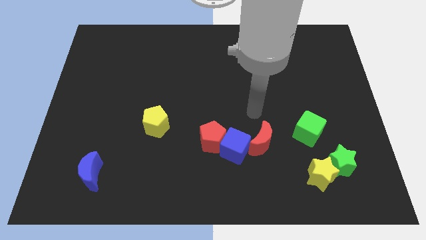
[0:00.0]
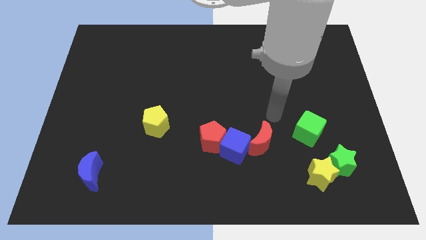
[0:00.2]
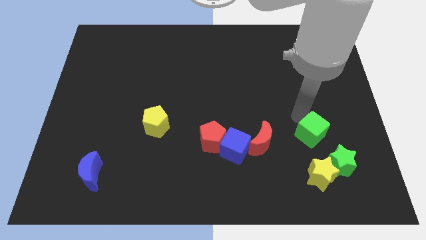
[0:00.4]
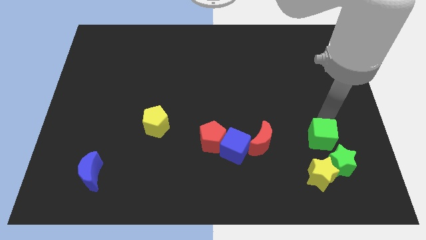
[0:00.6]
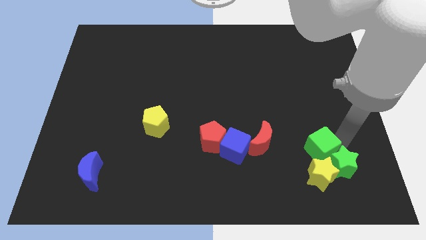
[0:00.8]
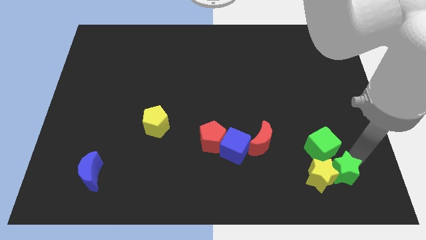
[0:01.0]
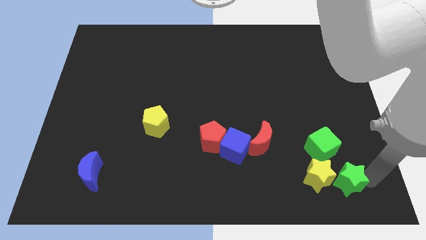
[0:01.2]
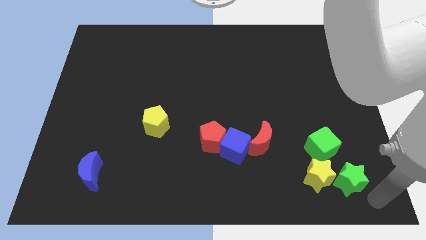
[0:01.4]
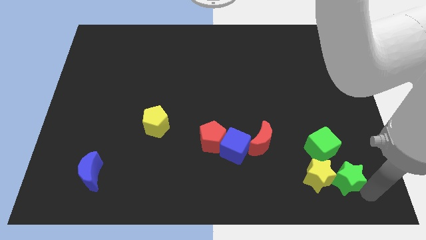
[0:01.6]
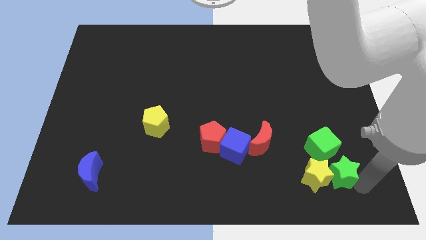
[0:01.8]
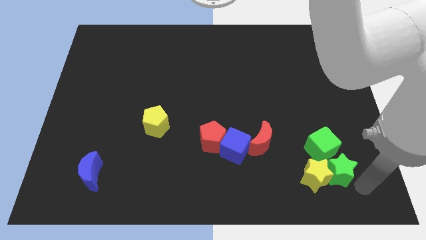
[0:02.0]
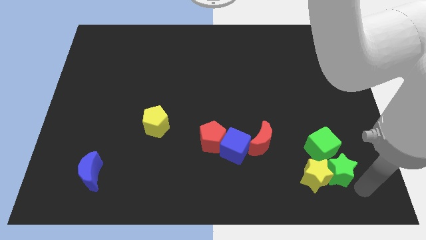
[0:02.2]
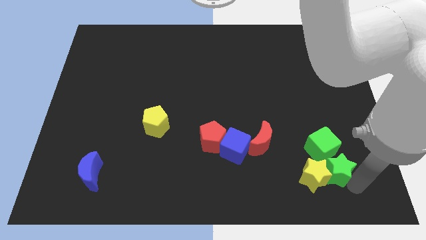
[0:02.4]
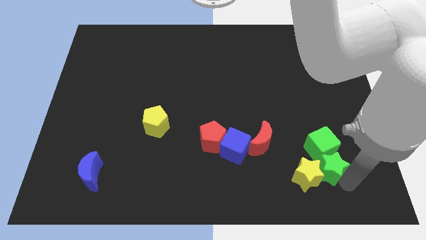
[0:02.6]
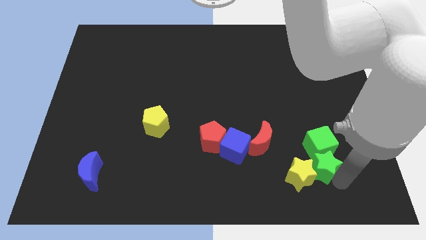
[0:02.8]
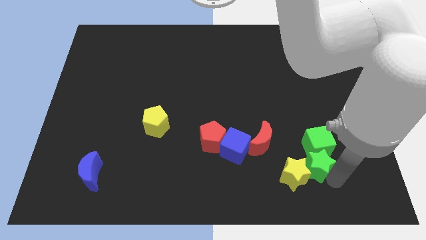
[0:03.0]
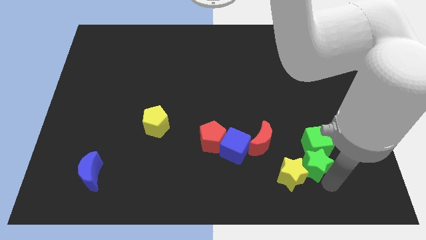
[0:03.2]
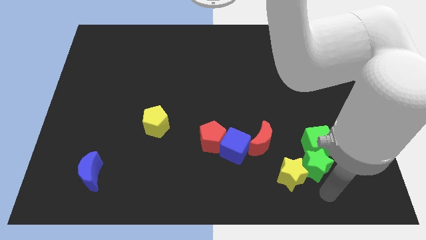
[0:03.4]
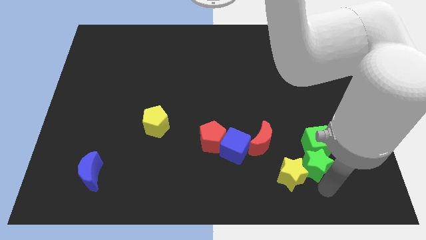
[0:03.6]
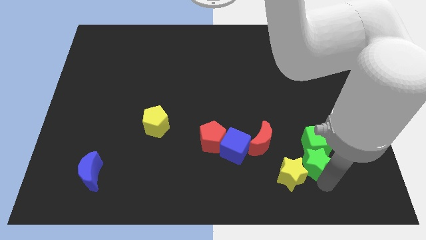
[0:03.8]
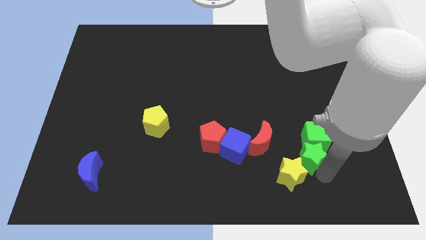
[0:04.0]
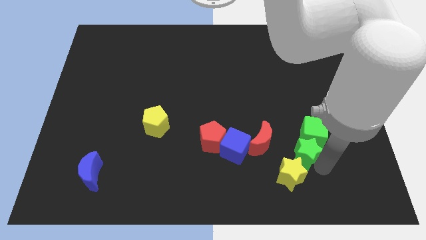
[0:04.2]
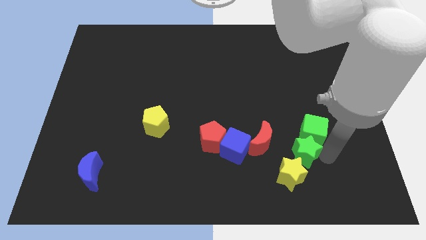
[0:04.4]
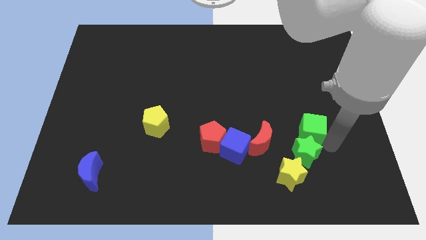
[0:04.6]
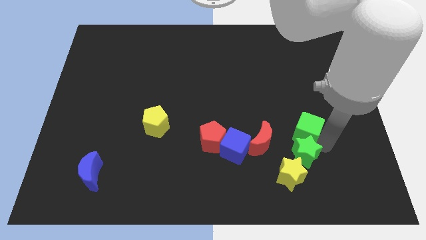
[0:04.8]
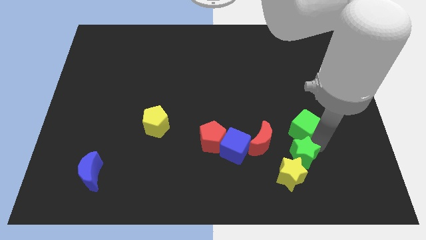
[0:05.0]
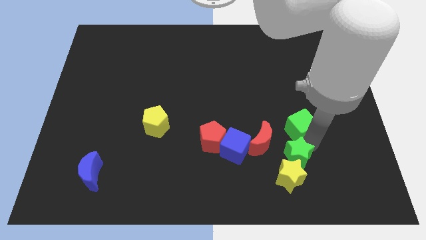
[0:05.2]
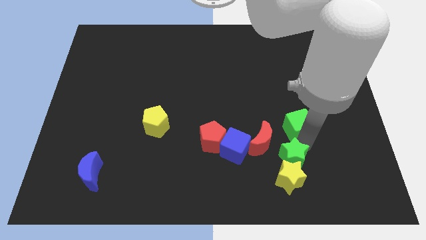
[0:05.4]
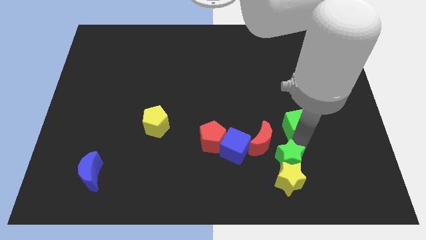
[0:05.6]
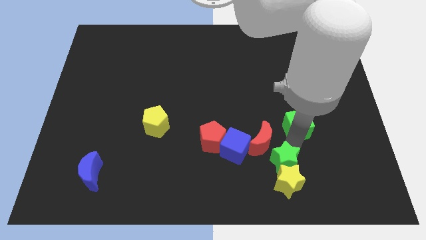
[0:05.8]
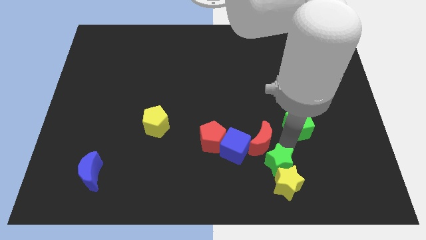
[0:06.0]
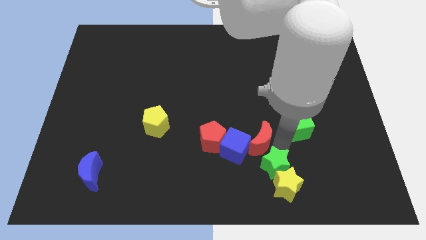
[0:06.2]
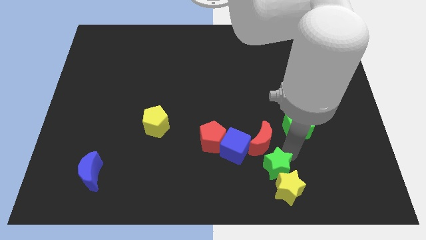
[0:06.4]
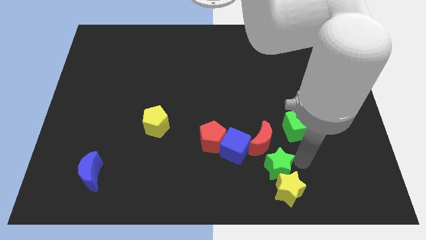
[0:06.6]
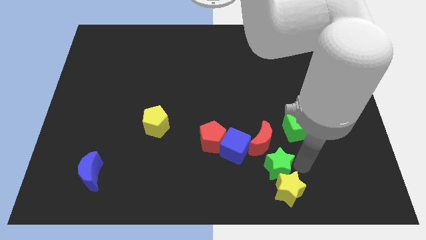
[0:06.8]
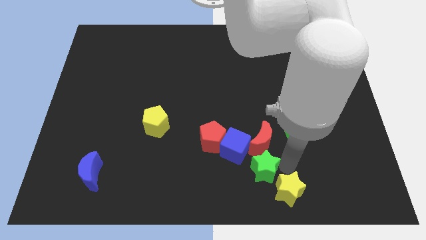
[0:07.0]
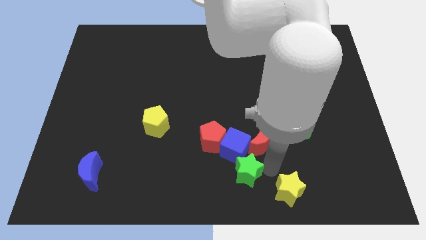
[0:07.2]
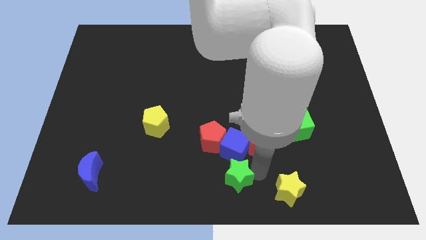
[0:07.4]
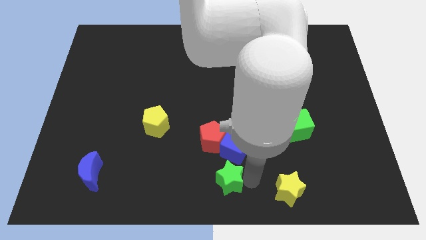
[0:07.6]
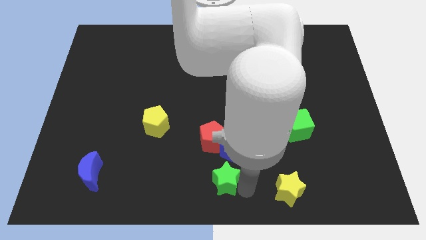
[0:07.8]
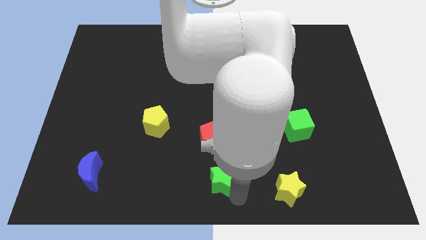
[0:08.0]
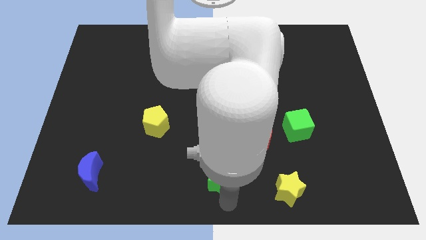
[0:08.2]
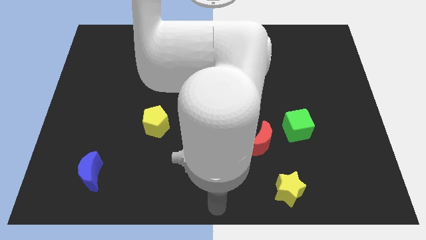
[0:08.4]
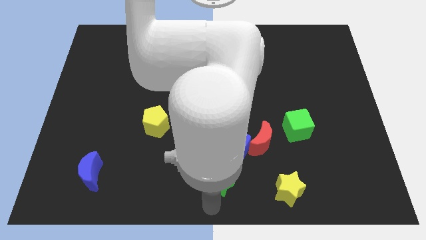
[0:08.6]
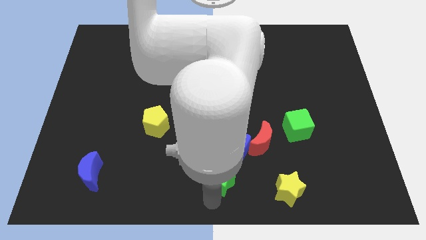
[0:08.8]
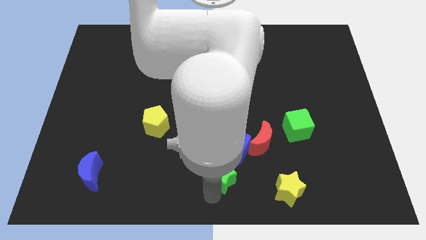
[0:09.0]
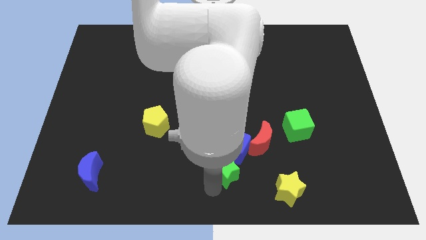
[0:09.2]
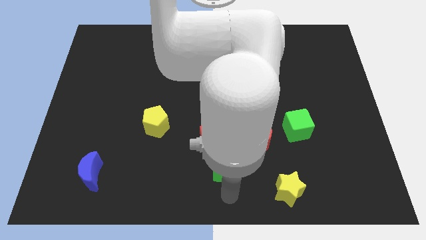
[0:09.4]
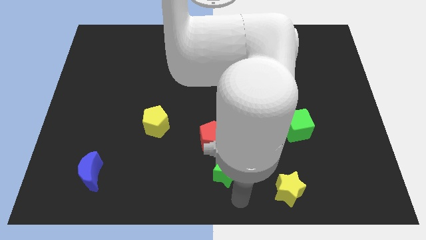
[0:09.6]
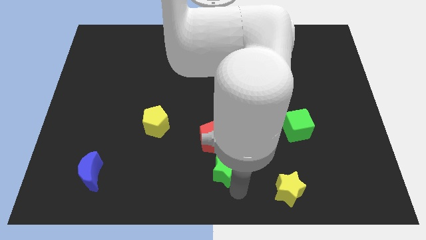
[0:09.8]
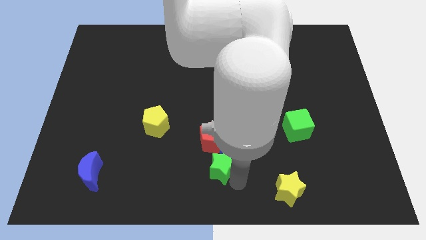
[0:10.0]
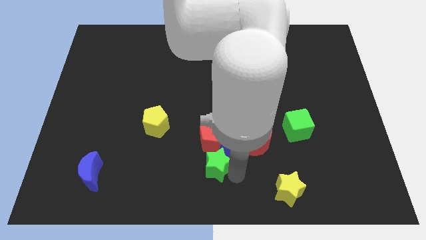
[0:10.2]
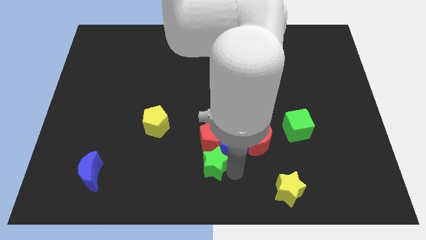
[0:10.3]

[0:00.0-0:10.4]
put the green star towards the red pentagon

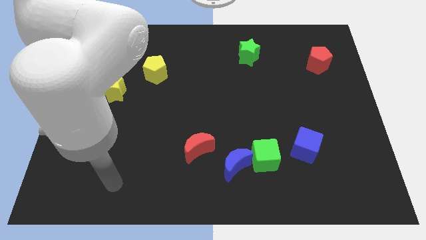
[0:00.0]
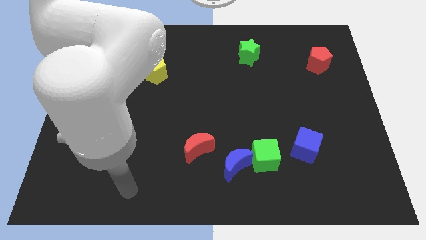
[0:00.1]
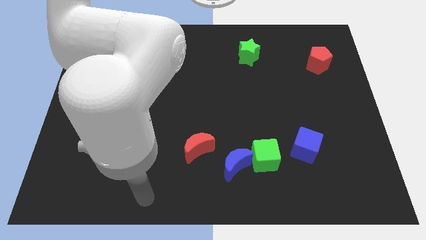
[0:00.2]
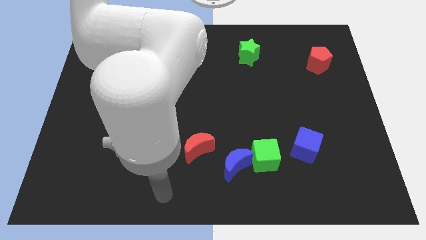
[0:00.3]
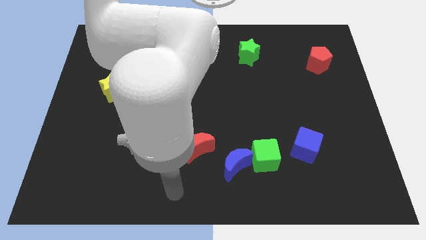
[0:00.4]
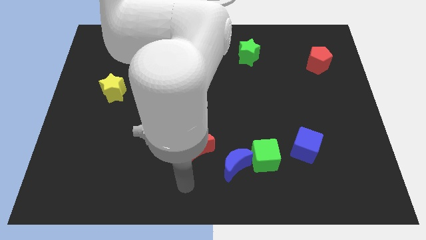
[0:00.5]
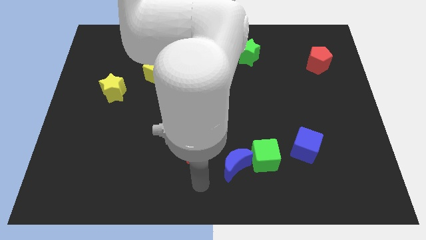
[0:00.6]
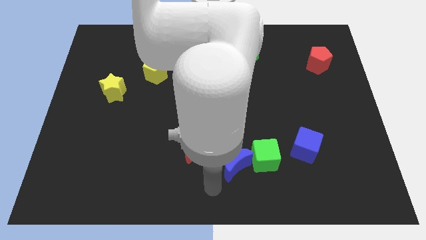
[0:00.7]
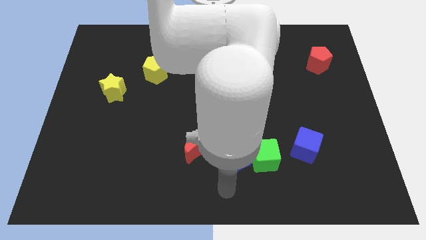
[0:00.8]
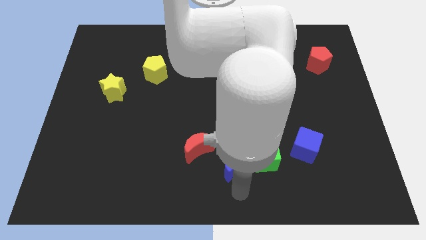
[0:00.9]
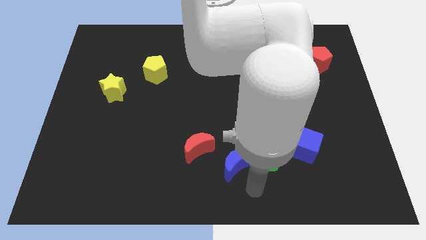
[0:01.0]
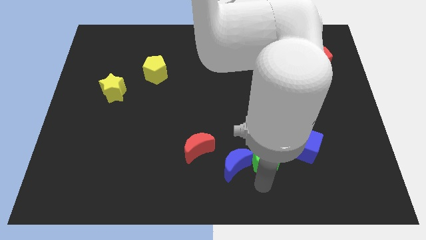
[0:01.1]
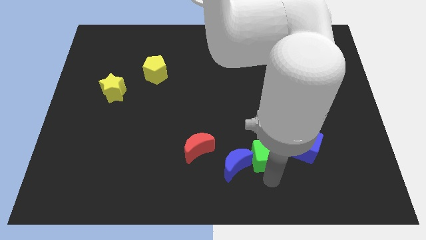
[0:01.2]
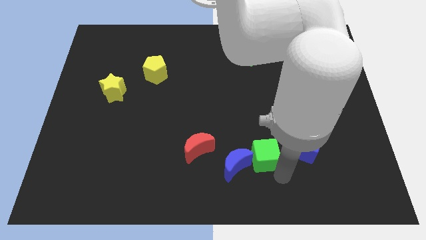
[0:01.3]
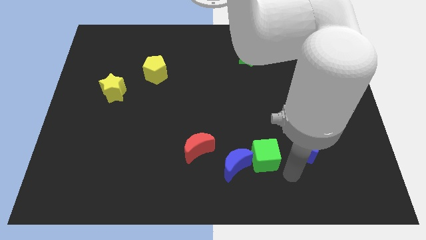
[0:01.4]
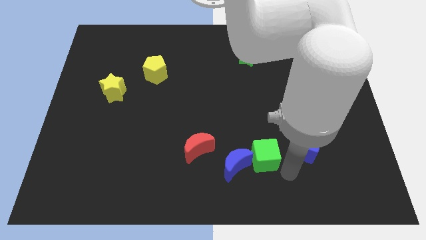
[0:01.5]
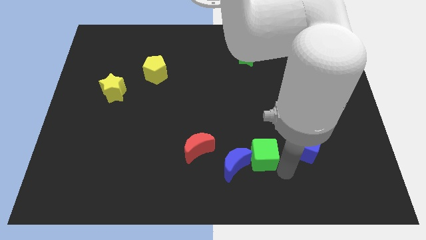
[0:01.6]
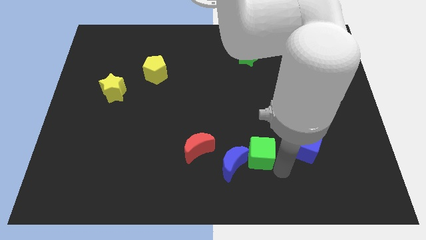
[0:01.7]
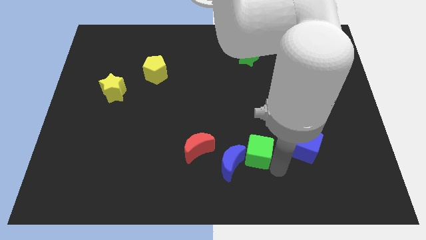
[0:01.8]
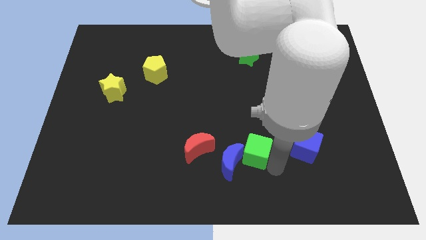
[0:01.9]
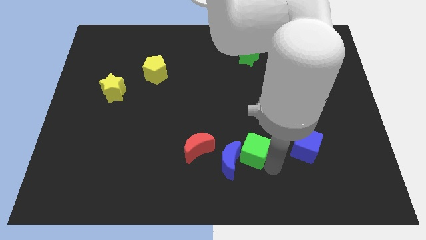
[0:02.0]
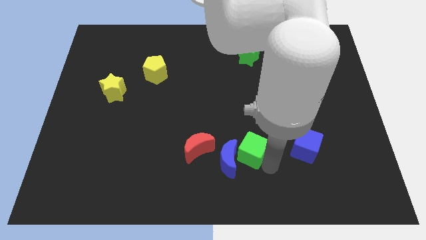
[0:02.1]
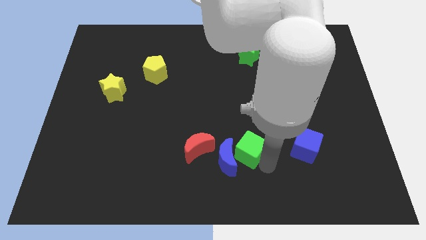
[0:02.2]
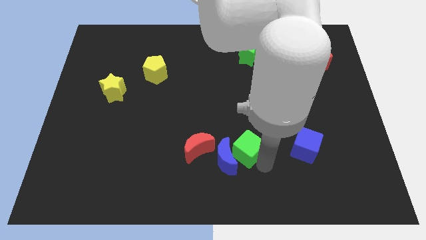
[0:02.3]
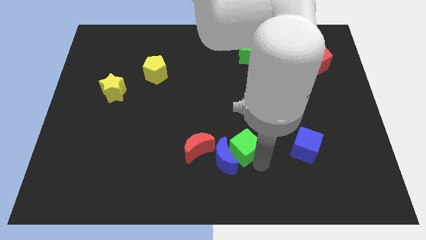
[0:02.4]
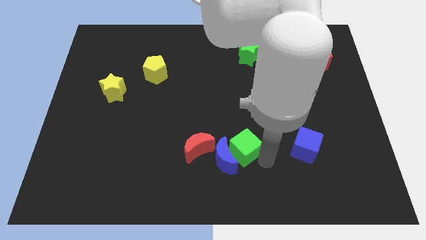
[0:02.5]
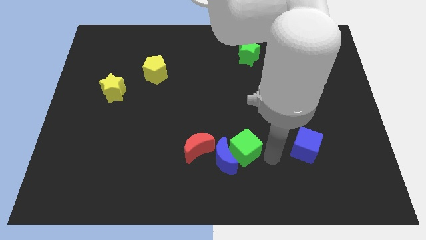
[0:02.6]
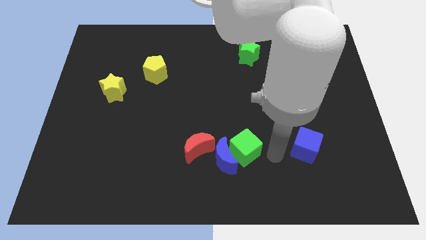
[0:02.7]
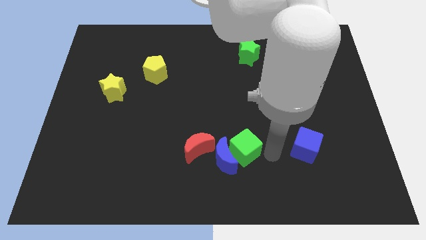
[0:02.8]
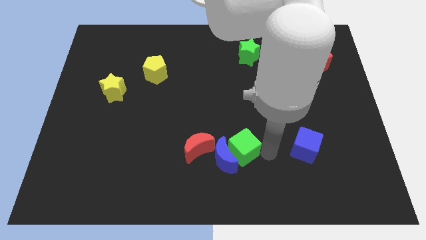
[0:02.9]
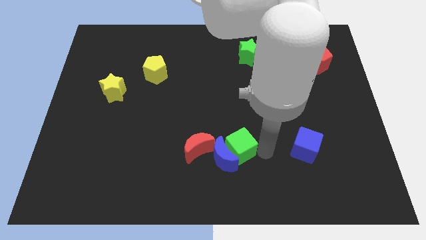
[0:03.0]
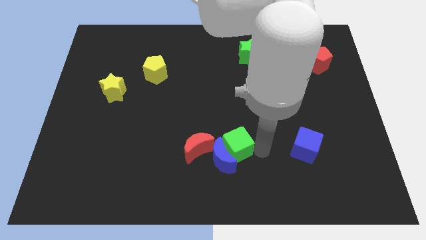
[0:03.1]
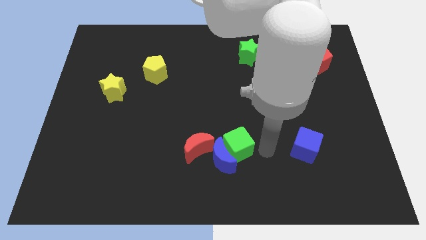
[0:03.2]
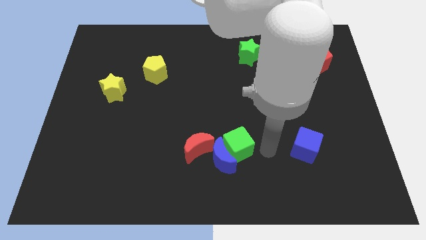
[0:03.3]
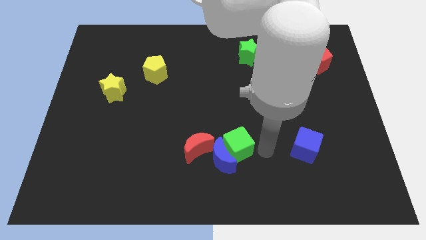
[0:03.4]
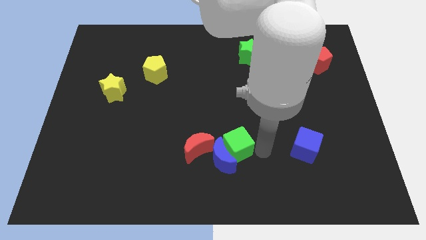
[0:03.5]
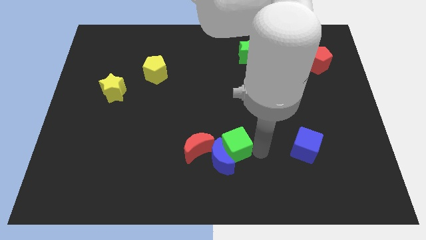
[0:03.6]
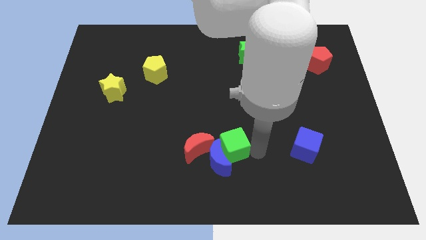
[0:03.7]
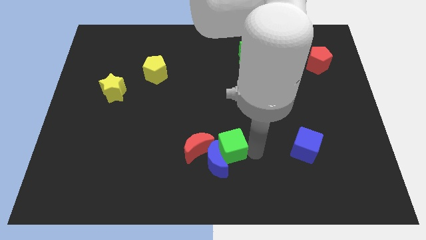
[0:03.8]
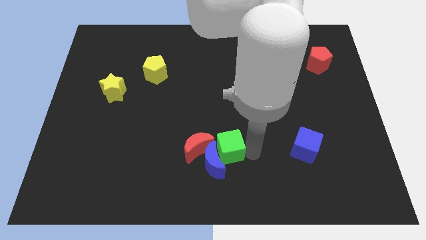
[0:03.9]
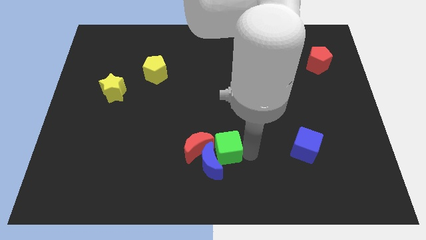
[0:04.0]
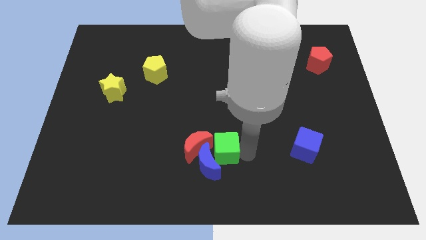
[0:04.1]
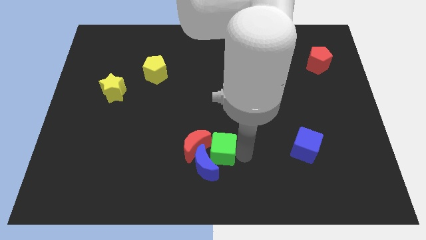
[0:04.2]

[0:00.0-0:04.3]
move the green cube to the red moon
